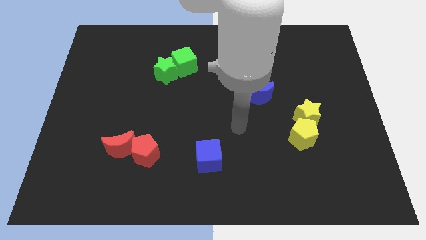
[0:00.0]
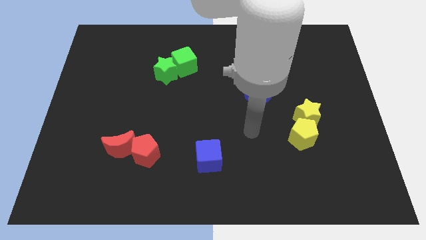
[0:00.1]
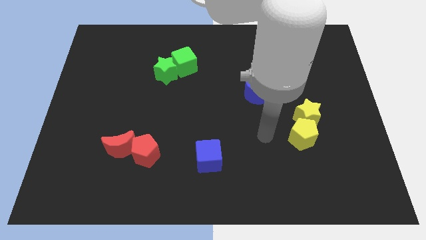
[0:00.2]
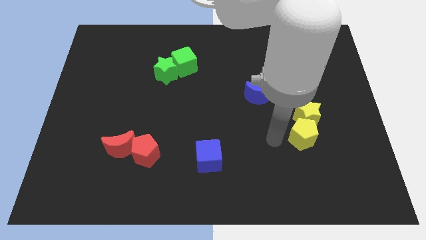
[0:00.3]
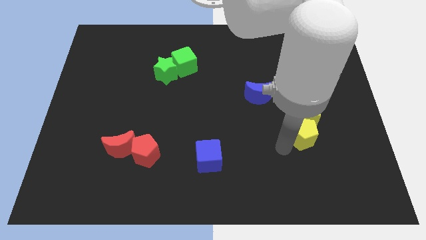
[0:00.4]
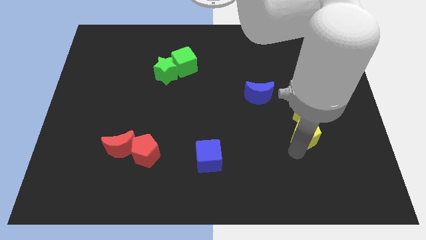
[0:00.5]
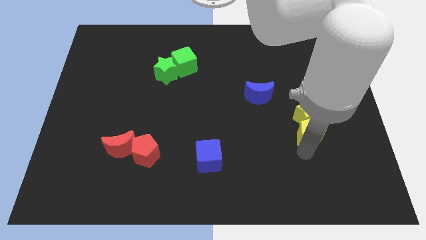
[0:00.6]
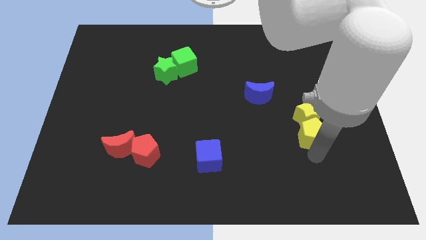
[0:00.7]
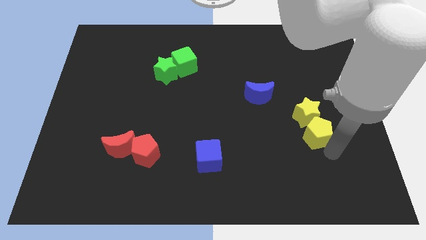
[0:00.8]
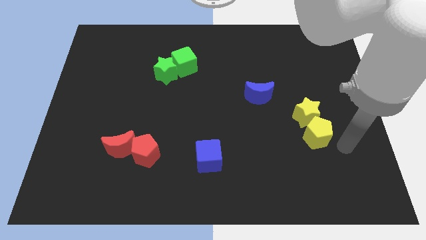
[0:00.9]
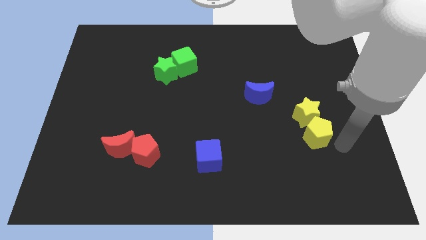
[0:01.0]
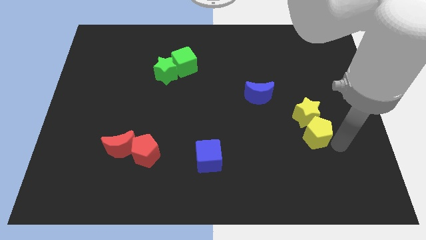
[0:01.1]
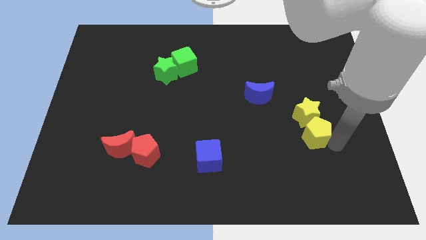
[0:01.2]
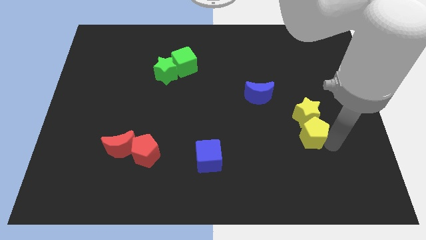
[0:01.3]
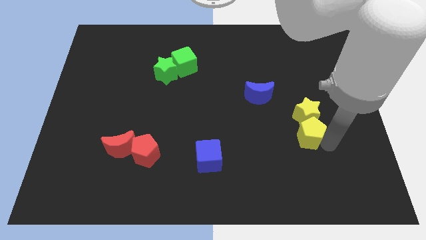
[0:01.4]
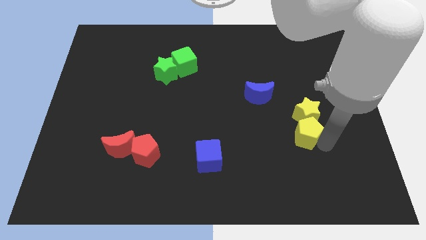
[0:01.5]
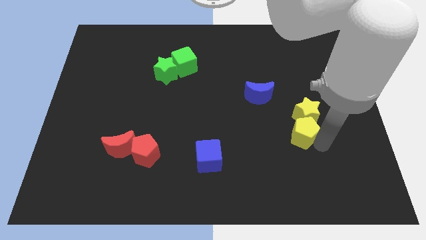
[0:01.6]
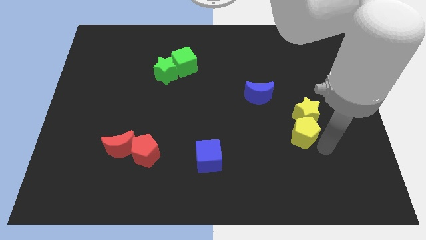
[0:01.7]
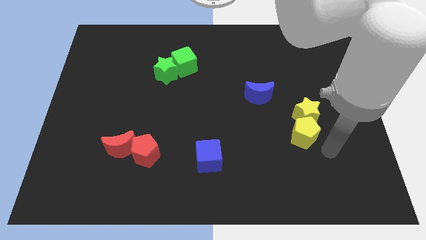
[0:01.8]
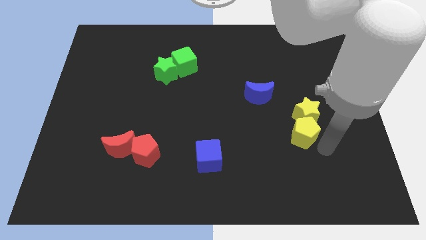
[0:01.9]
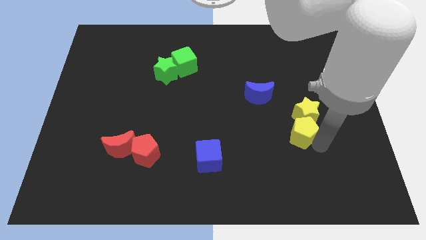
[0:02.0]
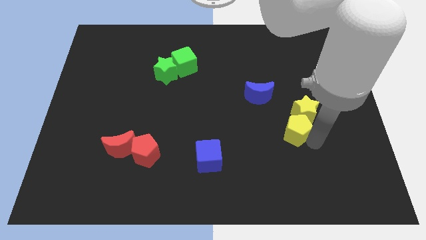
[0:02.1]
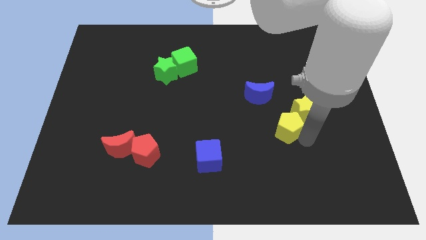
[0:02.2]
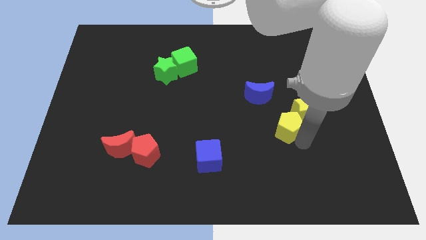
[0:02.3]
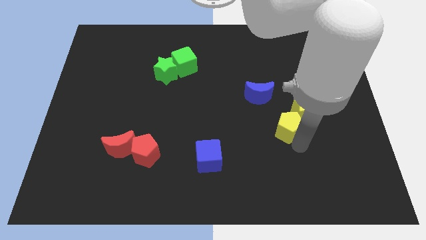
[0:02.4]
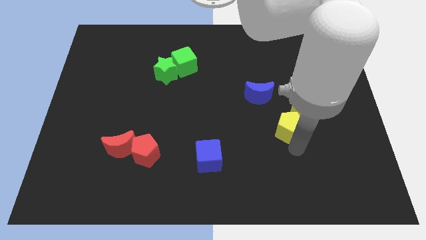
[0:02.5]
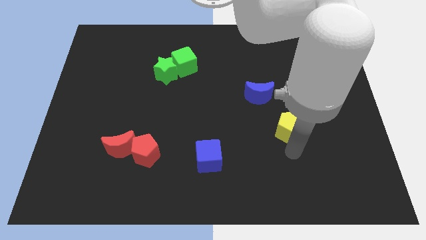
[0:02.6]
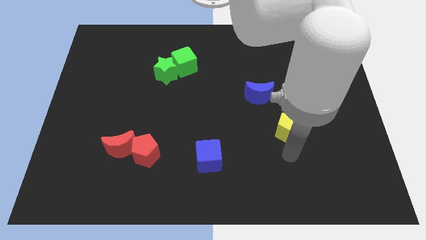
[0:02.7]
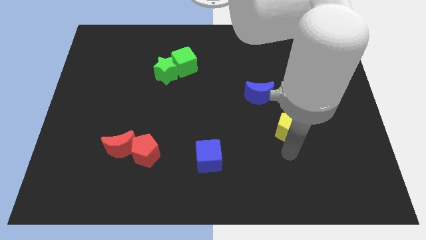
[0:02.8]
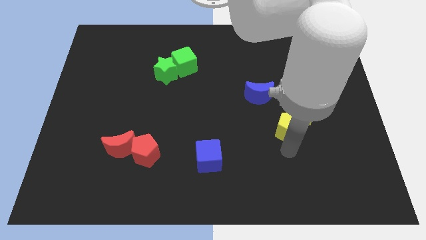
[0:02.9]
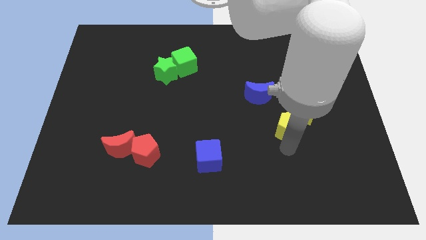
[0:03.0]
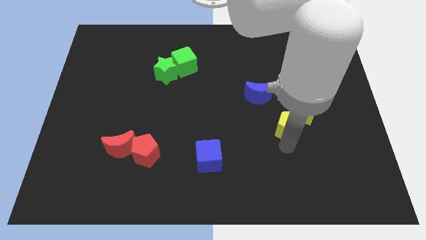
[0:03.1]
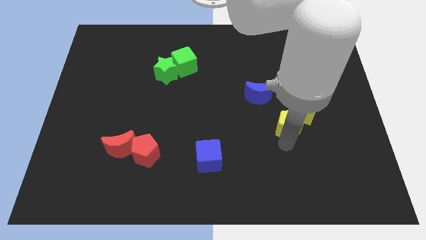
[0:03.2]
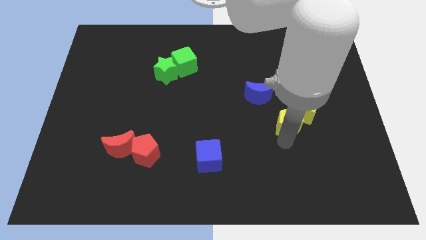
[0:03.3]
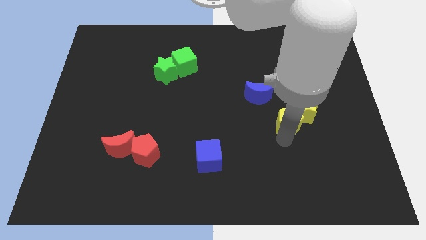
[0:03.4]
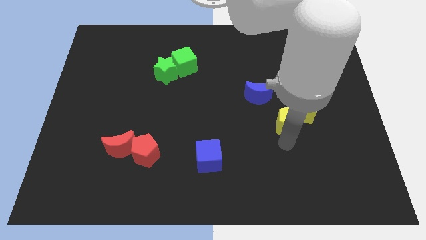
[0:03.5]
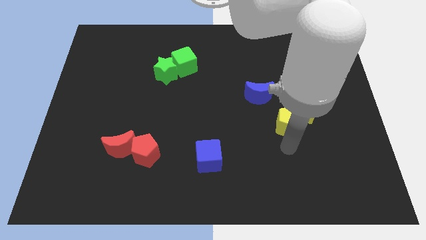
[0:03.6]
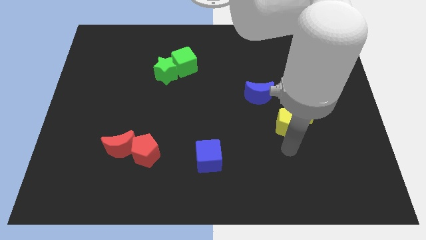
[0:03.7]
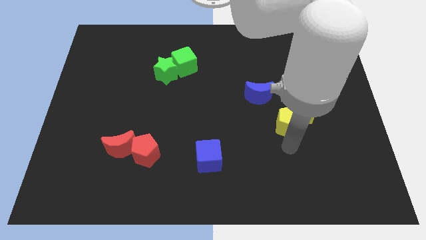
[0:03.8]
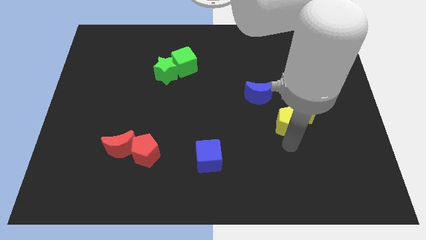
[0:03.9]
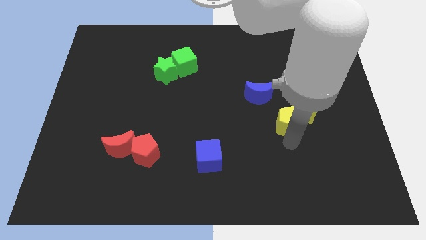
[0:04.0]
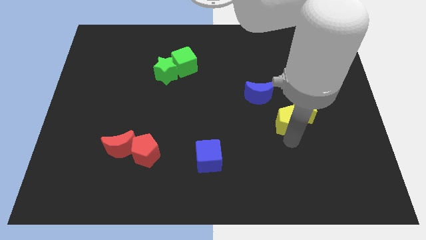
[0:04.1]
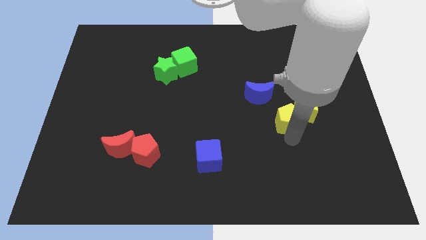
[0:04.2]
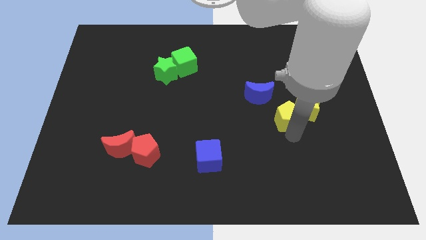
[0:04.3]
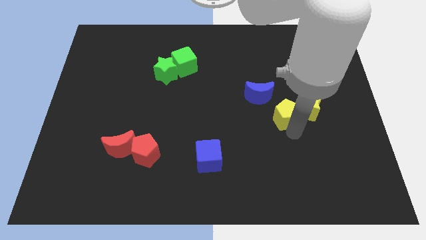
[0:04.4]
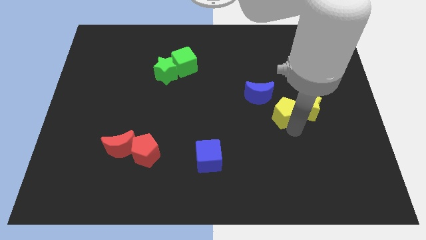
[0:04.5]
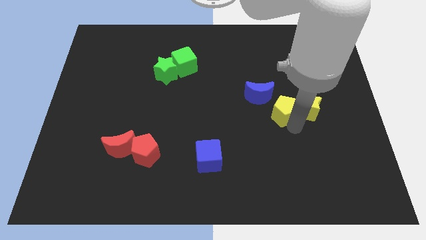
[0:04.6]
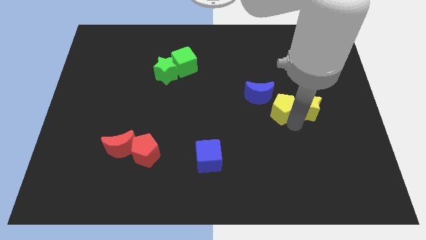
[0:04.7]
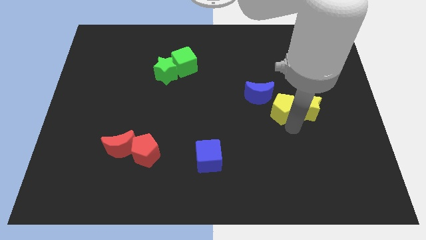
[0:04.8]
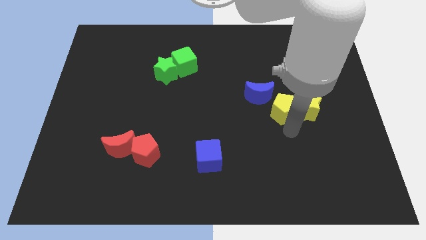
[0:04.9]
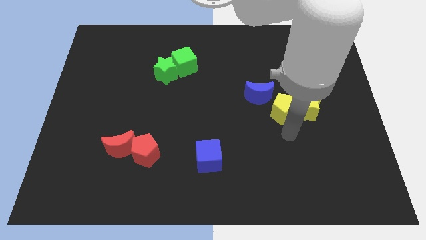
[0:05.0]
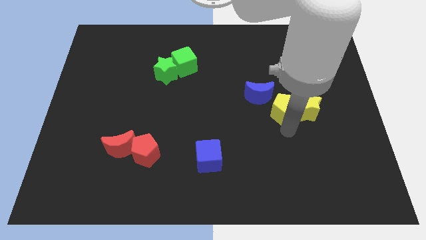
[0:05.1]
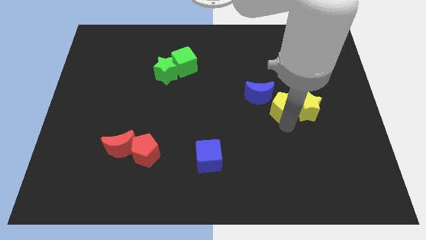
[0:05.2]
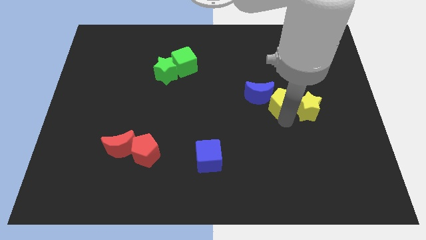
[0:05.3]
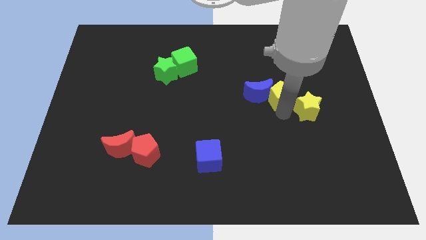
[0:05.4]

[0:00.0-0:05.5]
move the yellow pentagon diagonally up and to the right of the blue moon

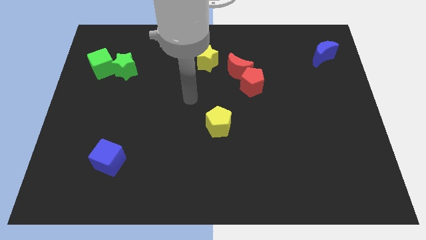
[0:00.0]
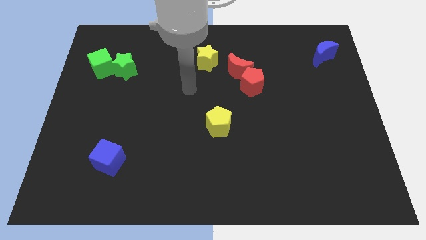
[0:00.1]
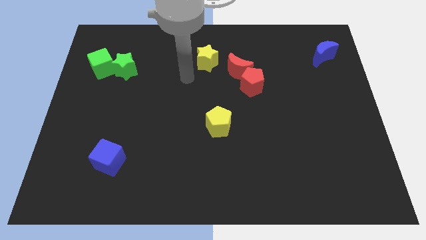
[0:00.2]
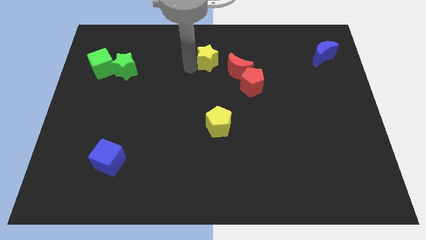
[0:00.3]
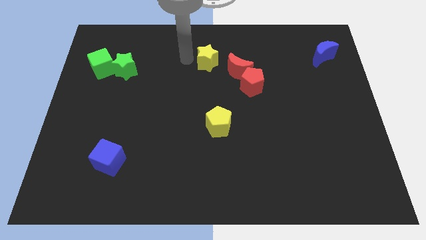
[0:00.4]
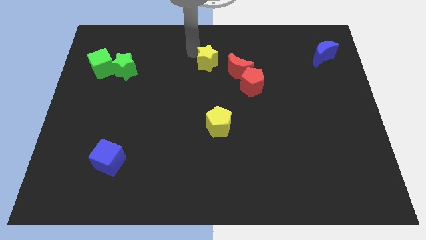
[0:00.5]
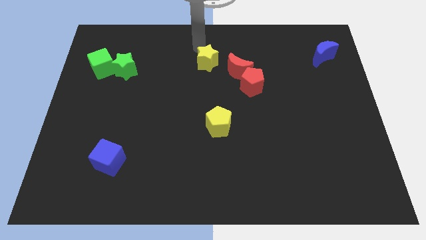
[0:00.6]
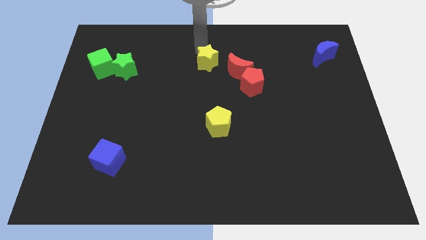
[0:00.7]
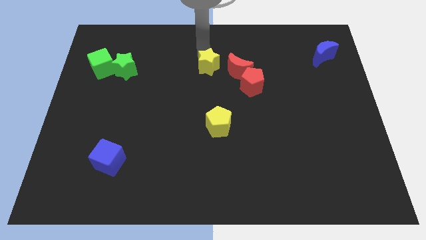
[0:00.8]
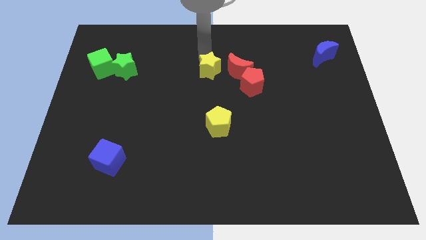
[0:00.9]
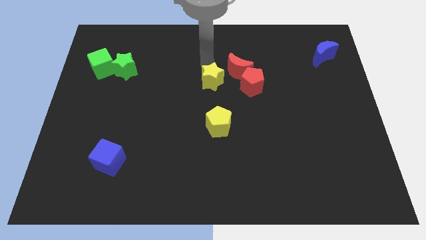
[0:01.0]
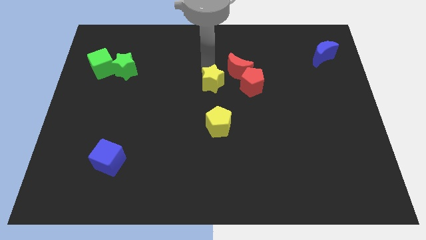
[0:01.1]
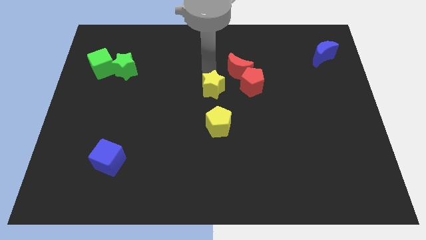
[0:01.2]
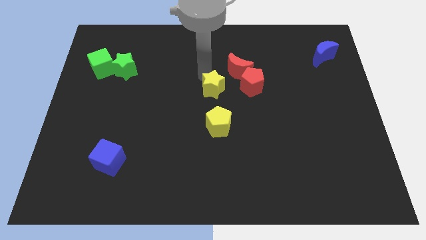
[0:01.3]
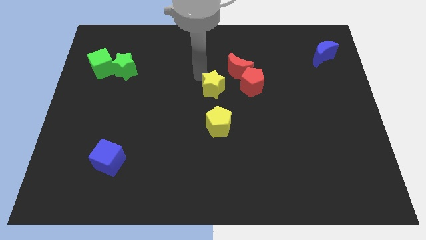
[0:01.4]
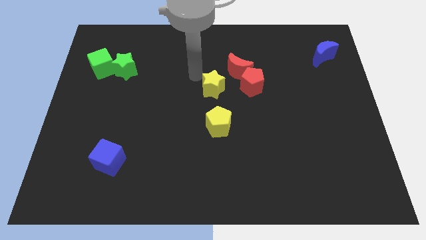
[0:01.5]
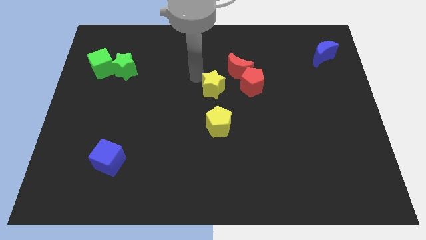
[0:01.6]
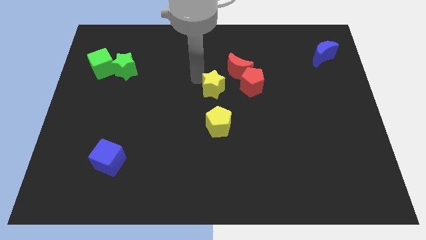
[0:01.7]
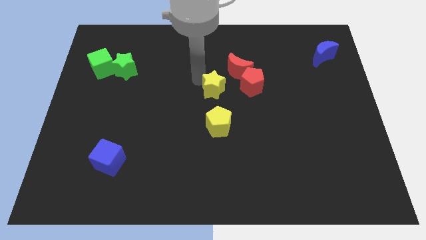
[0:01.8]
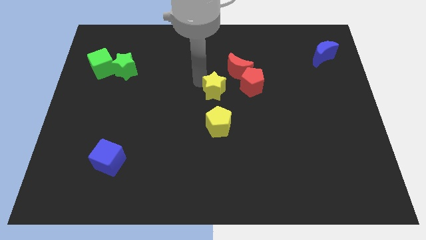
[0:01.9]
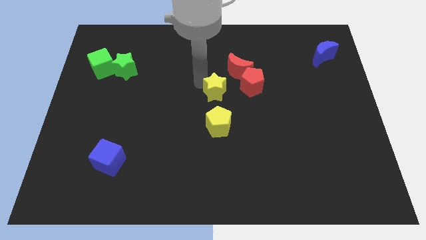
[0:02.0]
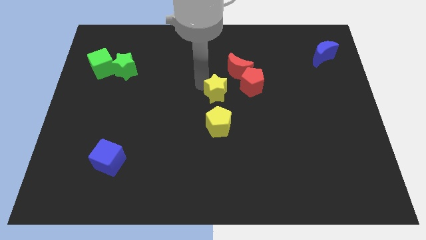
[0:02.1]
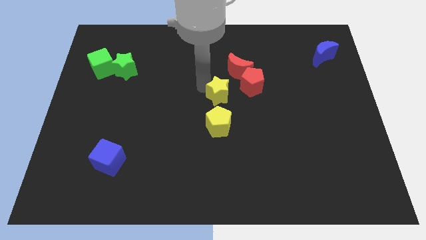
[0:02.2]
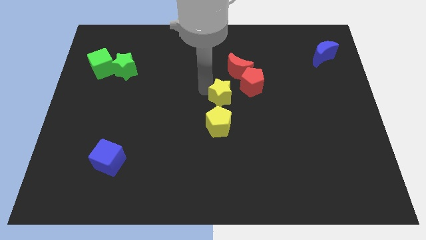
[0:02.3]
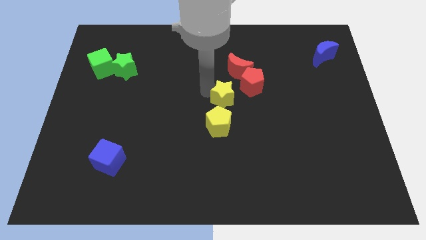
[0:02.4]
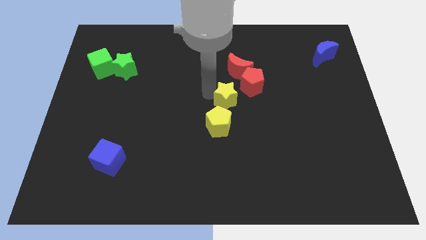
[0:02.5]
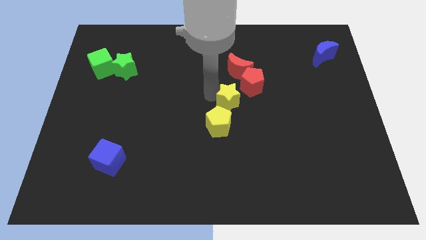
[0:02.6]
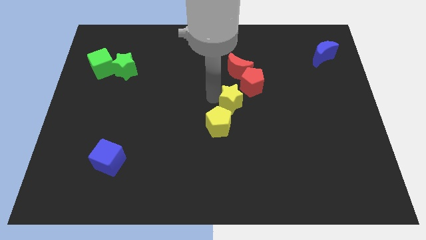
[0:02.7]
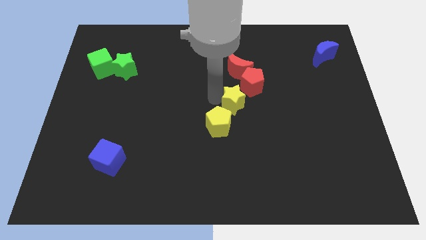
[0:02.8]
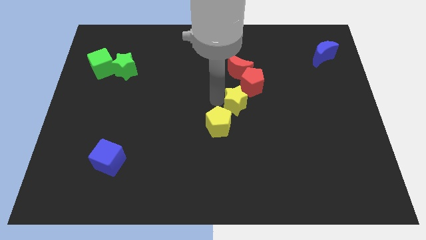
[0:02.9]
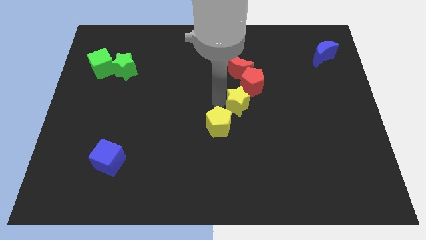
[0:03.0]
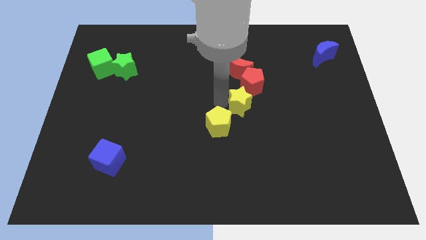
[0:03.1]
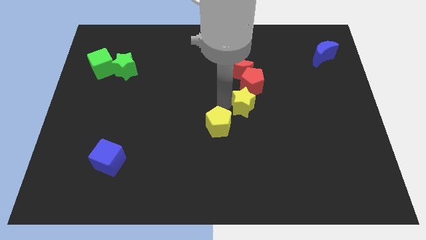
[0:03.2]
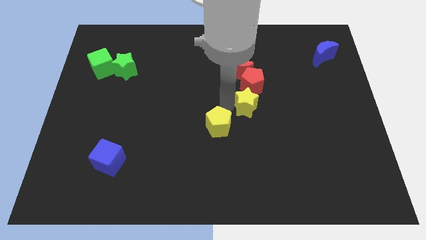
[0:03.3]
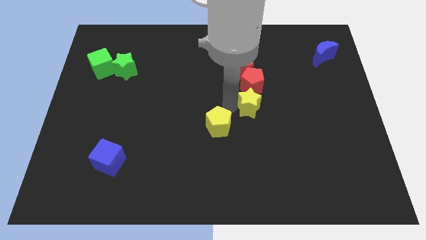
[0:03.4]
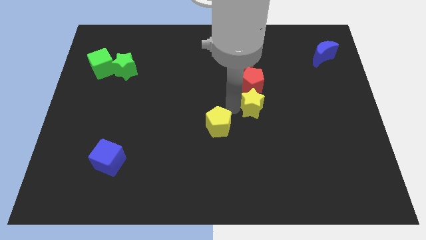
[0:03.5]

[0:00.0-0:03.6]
slide the yellow star diagonally down and to the right of the red pentagon
